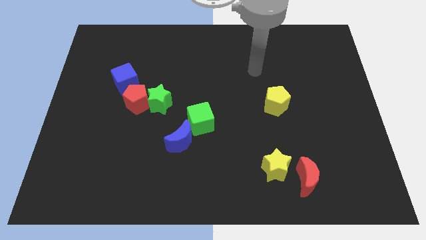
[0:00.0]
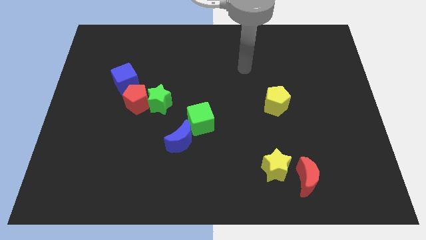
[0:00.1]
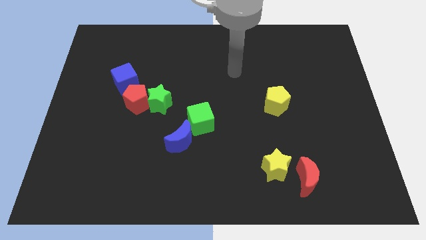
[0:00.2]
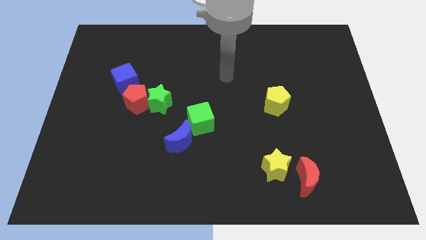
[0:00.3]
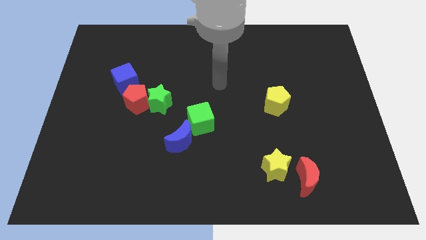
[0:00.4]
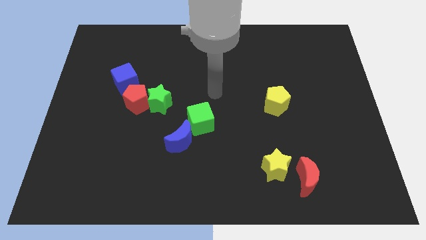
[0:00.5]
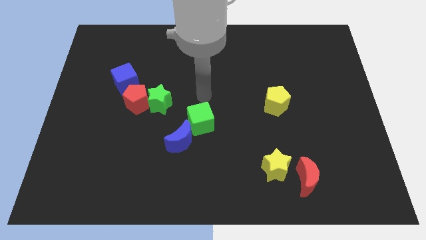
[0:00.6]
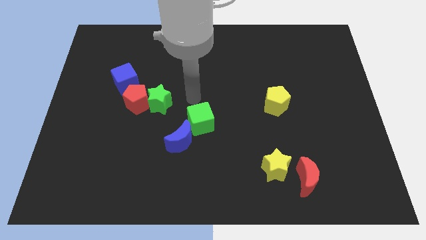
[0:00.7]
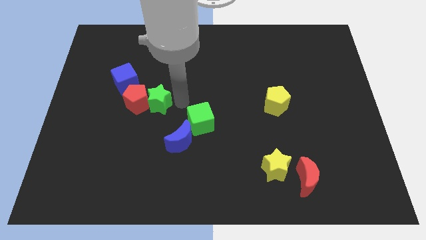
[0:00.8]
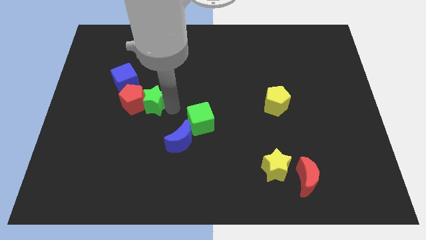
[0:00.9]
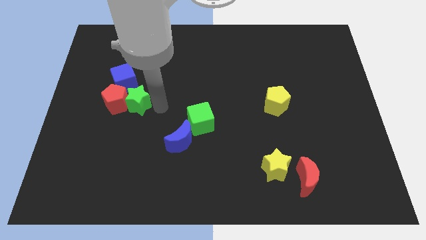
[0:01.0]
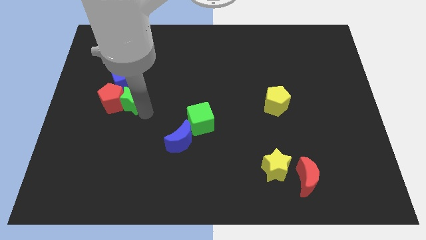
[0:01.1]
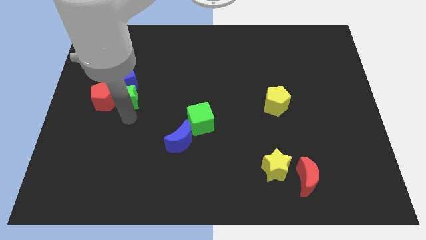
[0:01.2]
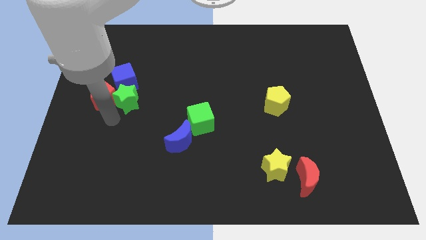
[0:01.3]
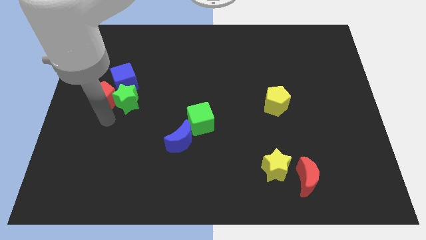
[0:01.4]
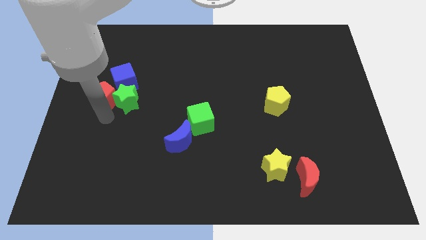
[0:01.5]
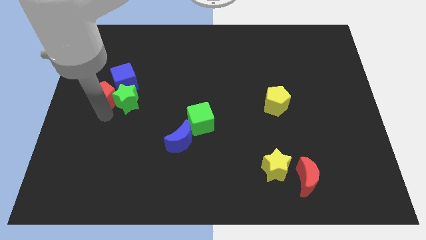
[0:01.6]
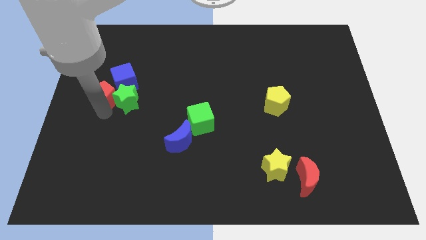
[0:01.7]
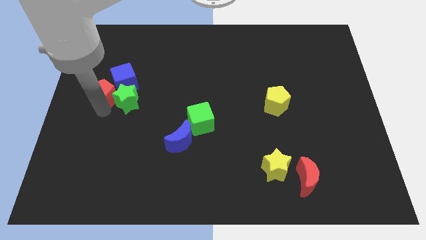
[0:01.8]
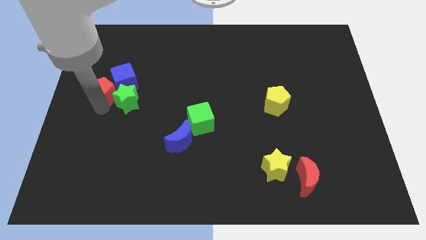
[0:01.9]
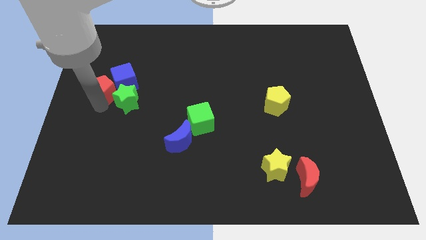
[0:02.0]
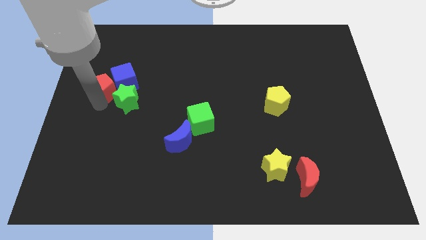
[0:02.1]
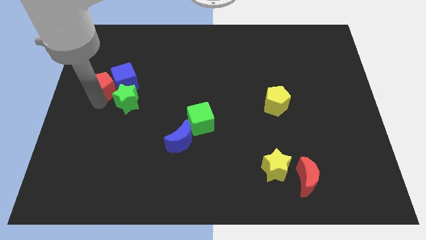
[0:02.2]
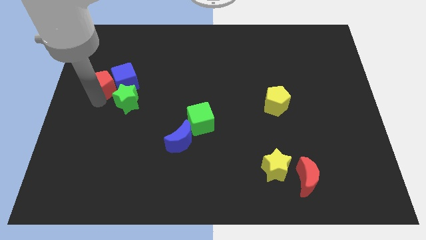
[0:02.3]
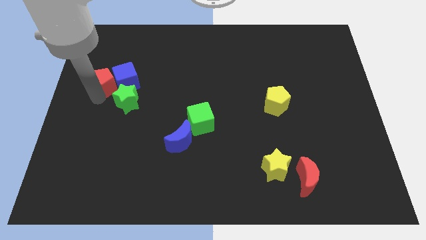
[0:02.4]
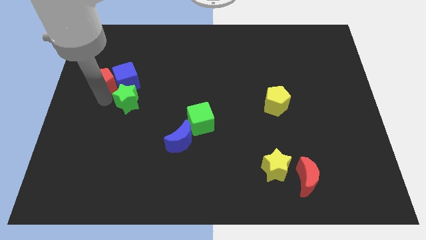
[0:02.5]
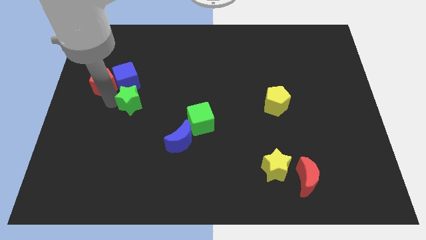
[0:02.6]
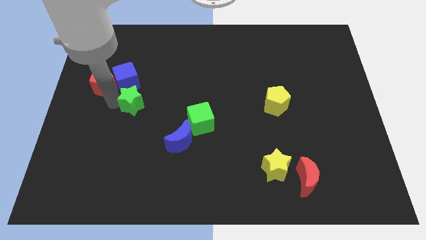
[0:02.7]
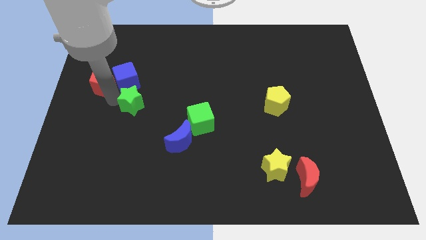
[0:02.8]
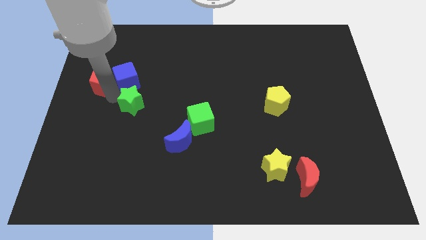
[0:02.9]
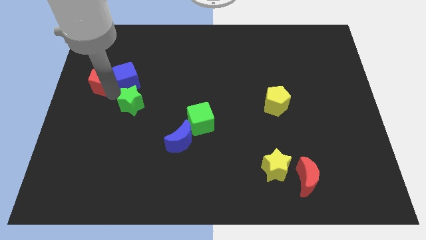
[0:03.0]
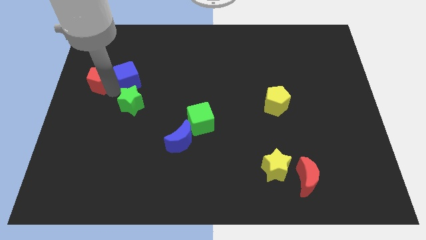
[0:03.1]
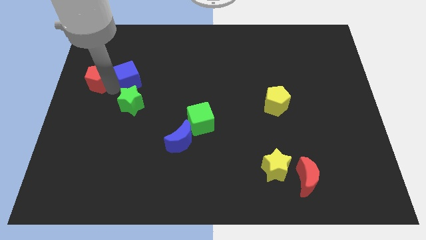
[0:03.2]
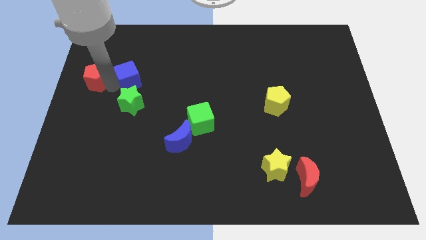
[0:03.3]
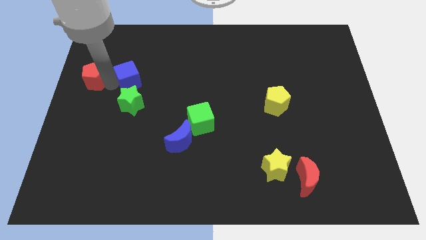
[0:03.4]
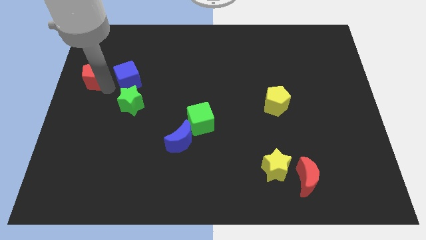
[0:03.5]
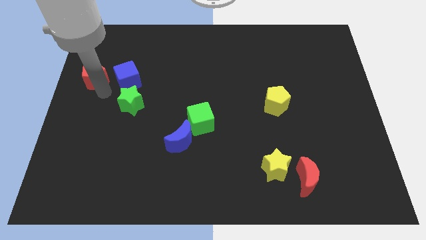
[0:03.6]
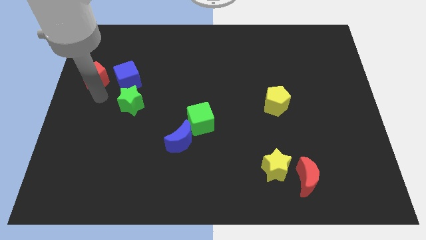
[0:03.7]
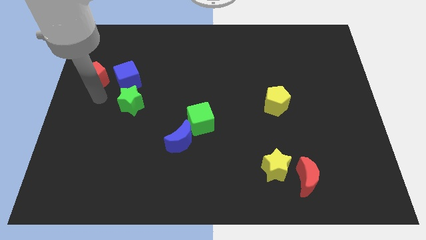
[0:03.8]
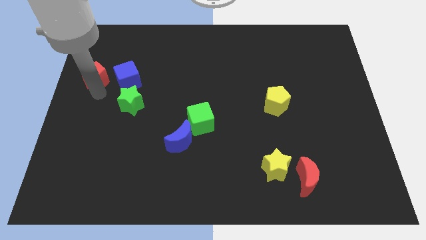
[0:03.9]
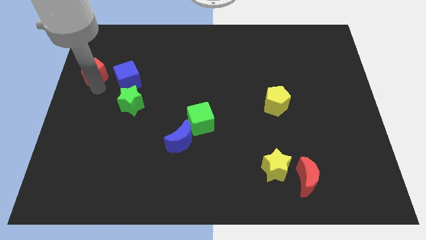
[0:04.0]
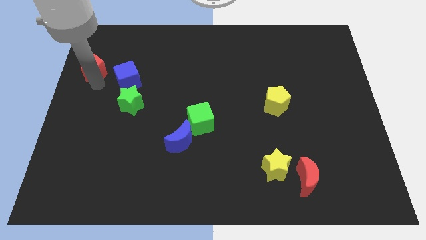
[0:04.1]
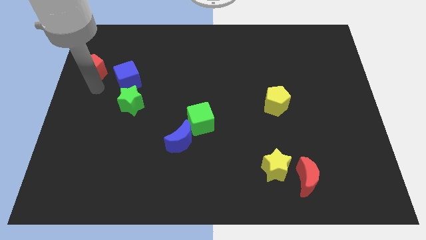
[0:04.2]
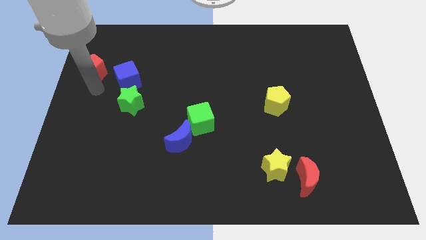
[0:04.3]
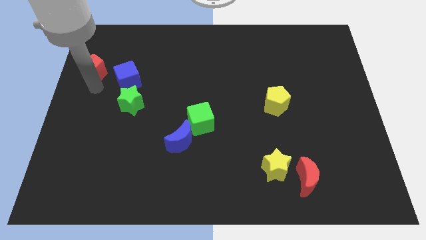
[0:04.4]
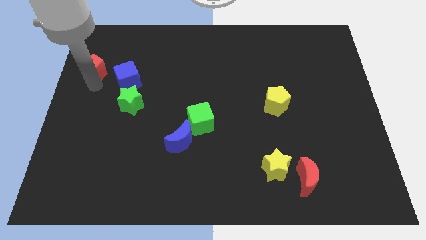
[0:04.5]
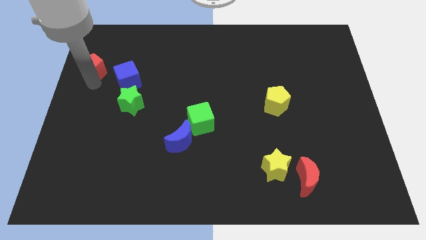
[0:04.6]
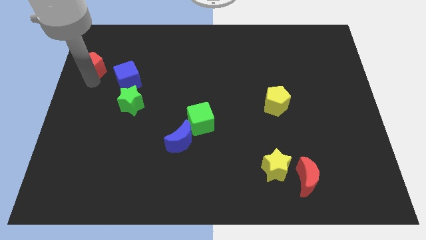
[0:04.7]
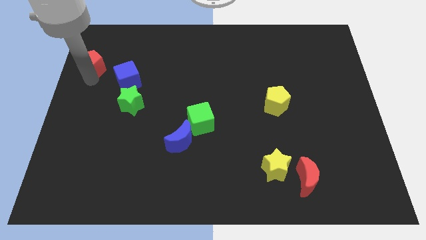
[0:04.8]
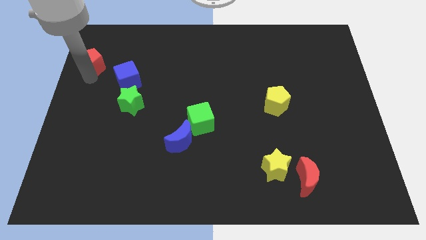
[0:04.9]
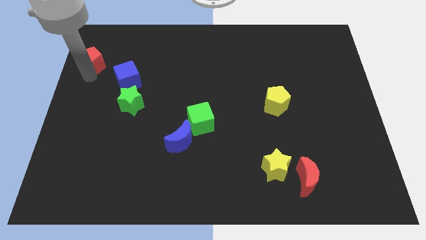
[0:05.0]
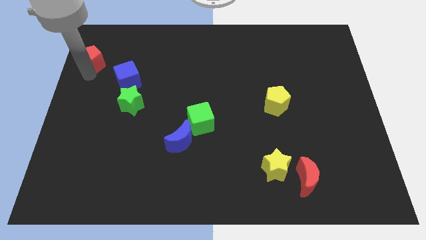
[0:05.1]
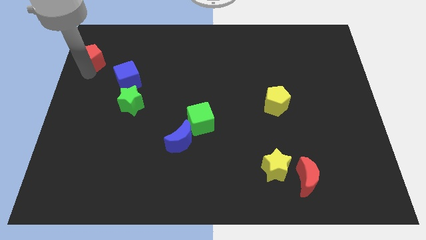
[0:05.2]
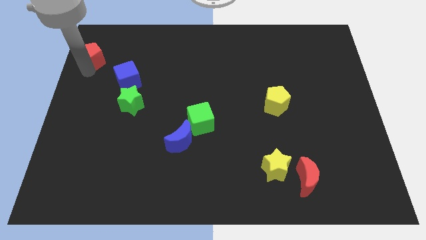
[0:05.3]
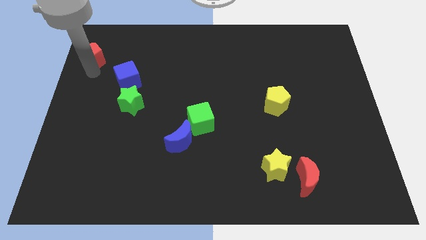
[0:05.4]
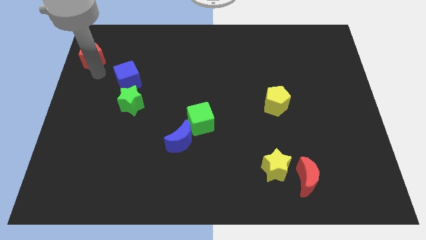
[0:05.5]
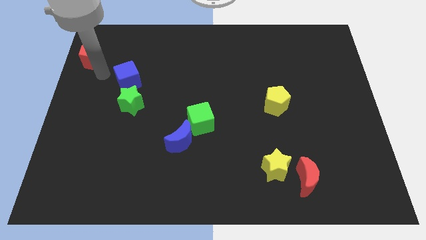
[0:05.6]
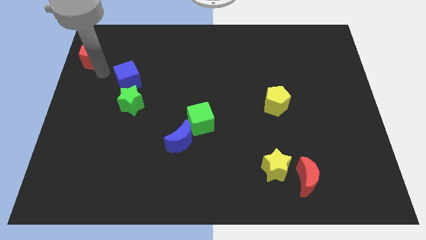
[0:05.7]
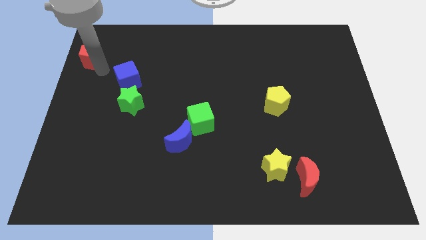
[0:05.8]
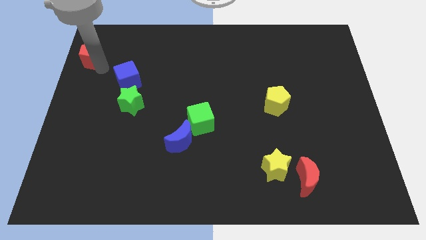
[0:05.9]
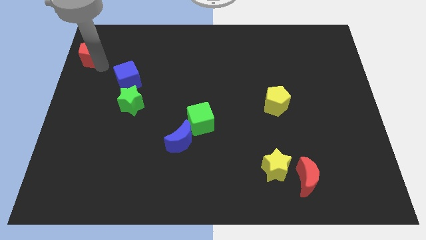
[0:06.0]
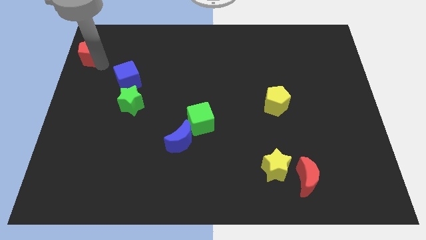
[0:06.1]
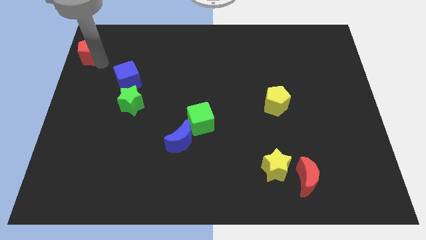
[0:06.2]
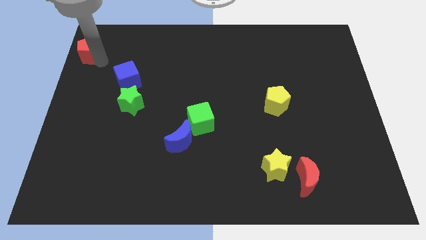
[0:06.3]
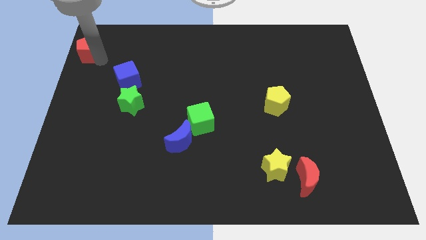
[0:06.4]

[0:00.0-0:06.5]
move the red pentagon to the top left of the board
